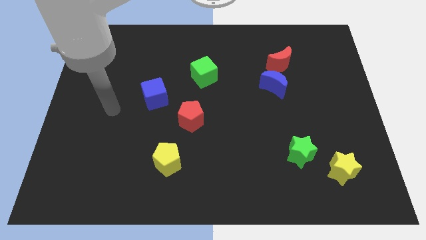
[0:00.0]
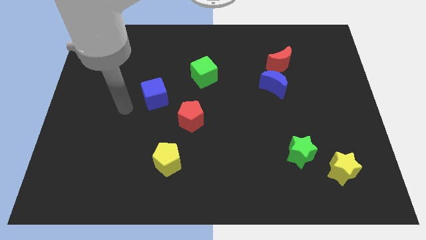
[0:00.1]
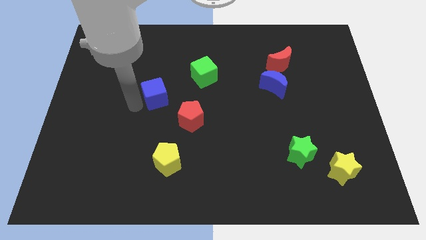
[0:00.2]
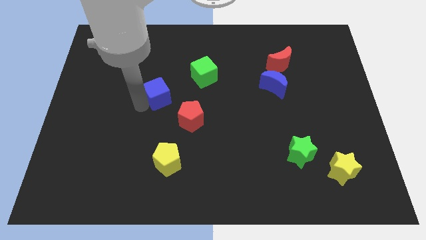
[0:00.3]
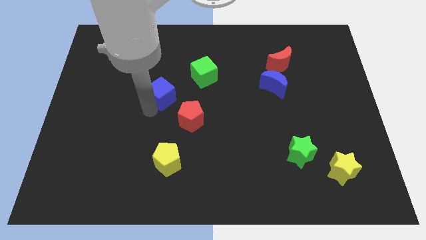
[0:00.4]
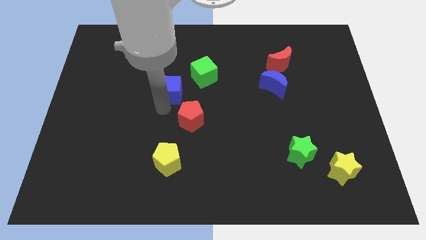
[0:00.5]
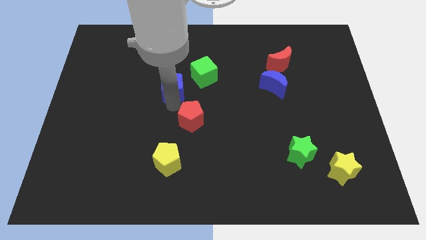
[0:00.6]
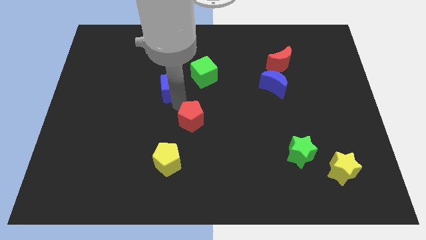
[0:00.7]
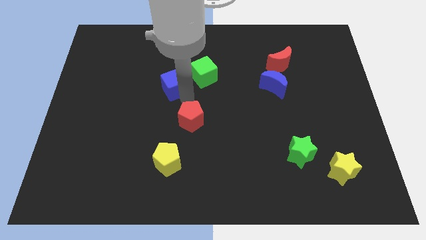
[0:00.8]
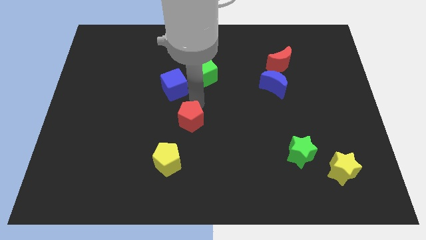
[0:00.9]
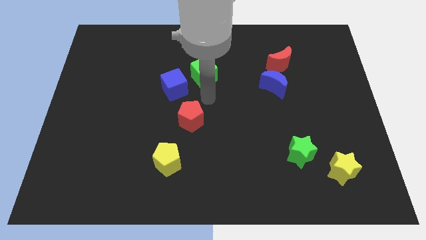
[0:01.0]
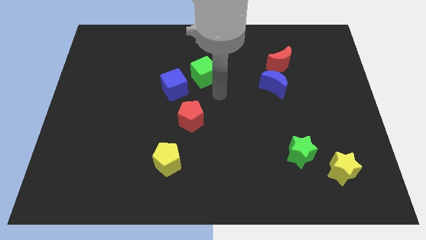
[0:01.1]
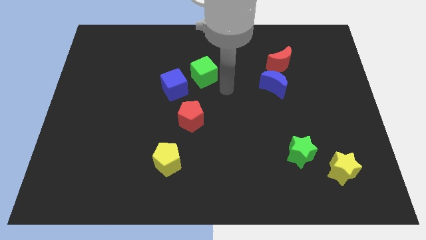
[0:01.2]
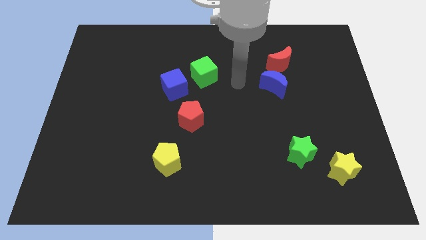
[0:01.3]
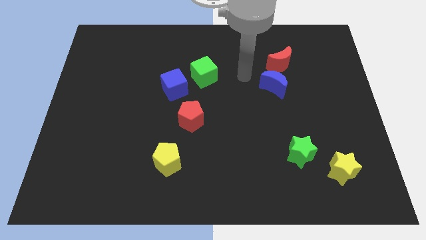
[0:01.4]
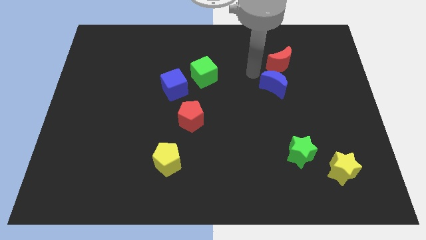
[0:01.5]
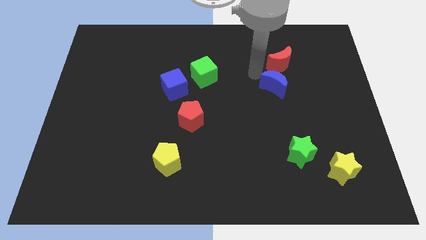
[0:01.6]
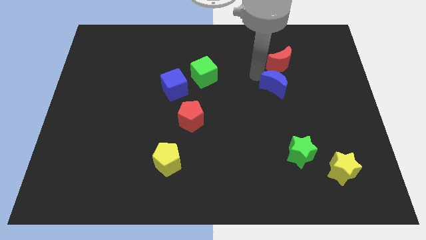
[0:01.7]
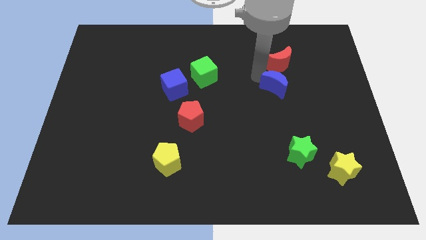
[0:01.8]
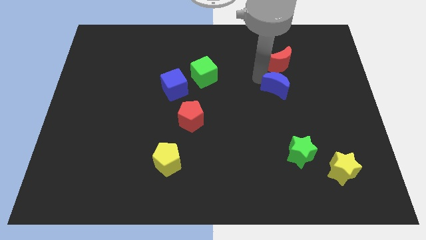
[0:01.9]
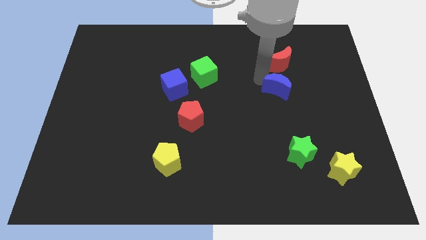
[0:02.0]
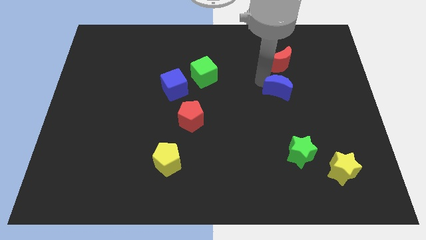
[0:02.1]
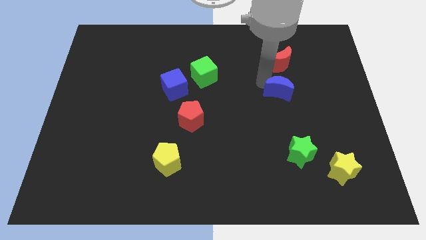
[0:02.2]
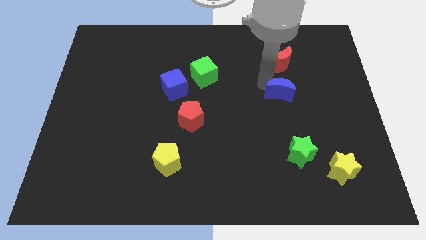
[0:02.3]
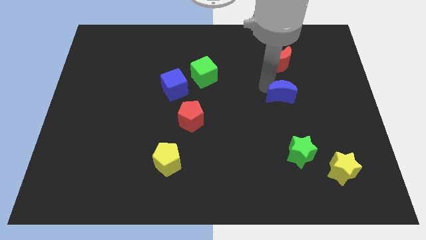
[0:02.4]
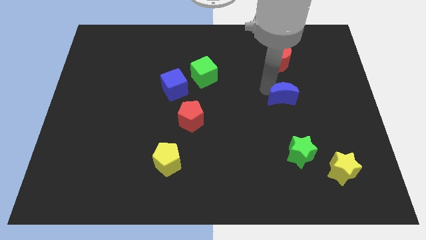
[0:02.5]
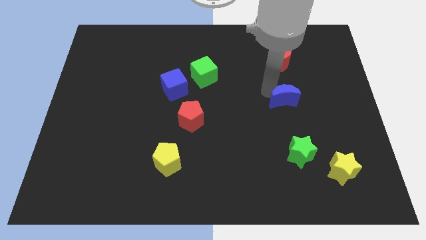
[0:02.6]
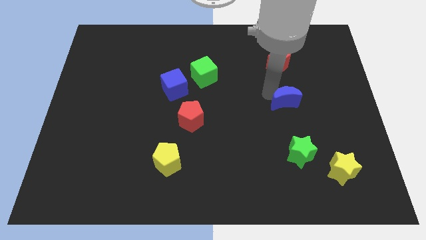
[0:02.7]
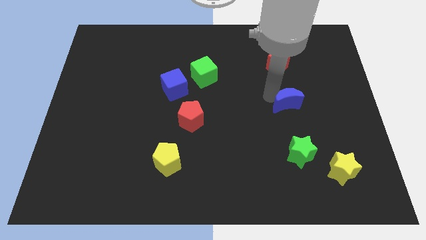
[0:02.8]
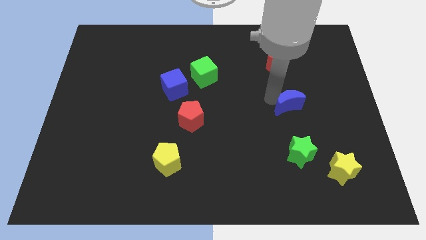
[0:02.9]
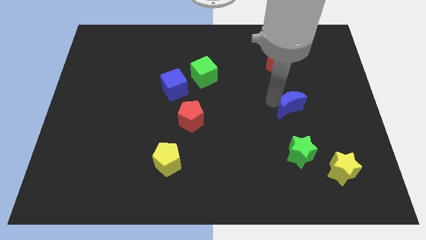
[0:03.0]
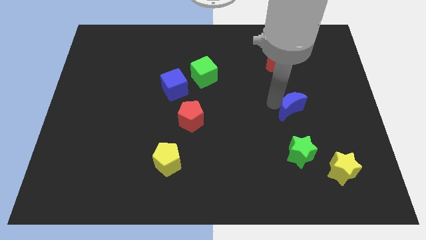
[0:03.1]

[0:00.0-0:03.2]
move the blue moon diagonally downwards and to the right somewhat

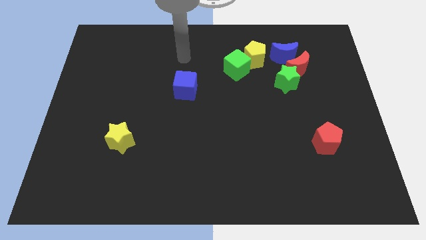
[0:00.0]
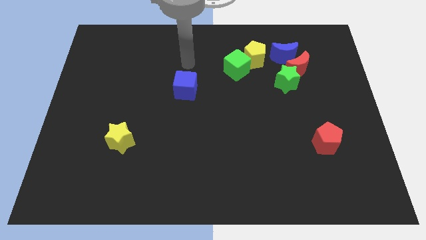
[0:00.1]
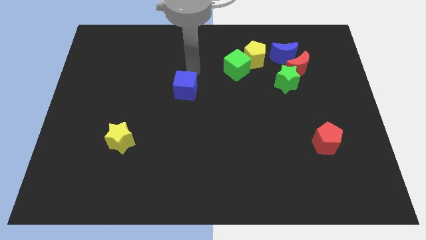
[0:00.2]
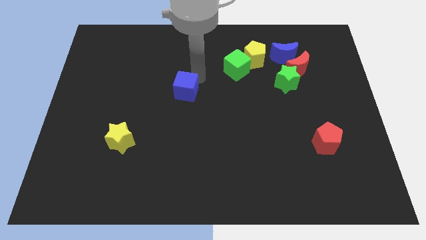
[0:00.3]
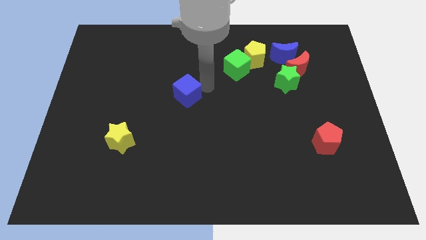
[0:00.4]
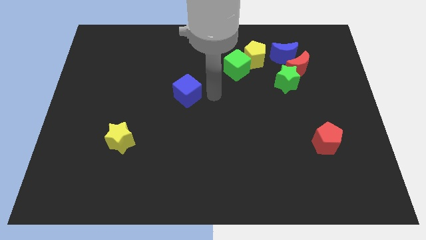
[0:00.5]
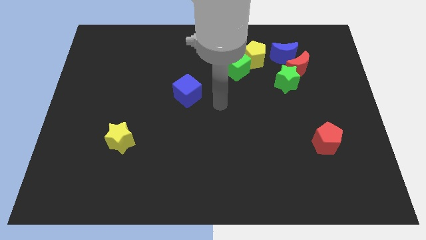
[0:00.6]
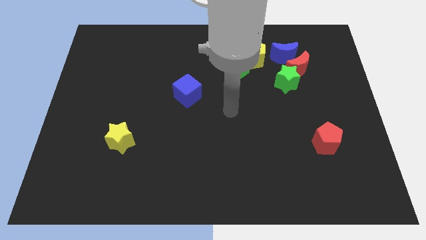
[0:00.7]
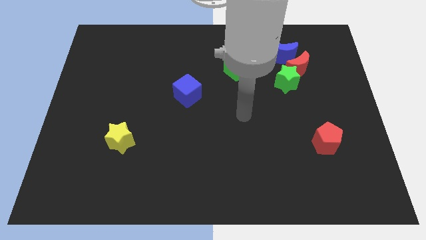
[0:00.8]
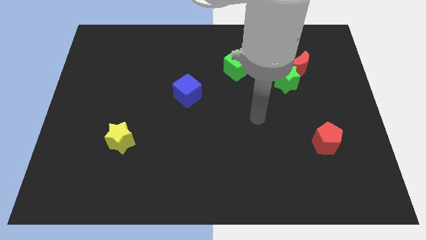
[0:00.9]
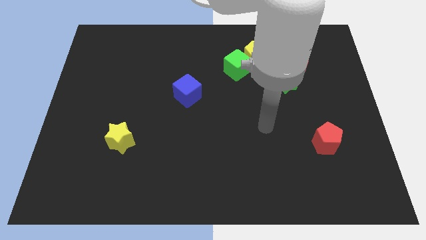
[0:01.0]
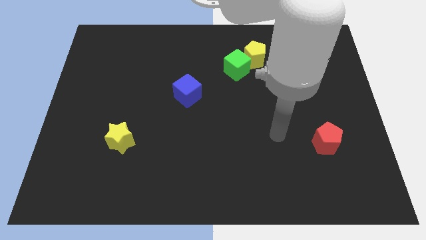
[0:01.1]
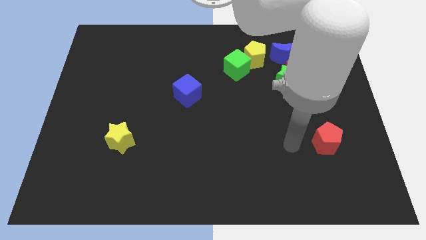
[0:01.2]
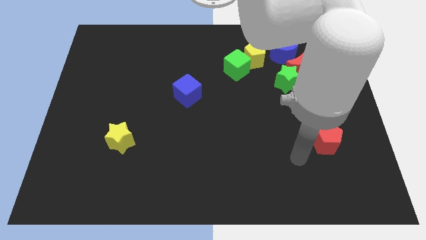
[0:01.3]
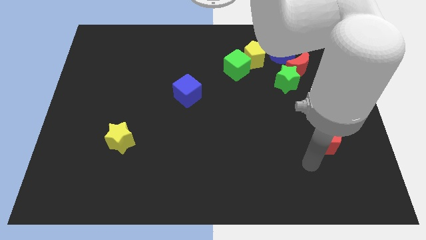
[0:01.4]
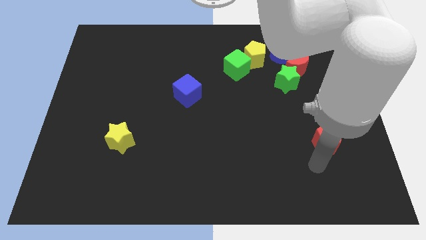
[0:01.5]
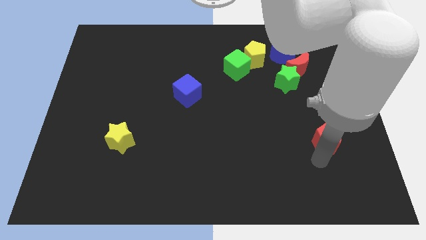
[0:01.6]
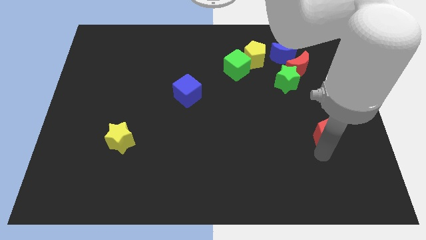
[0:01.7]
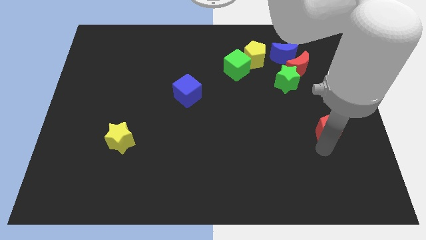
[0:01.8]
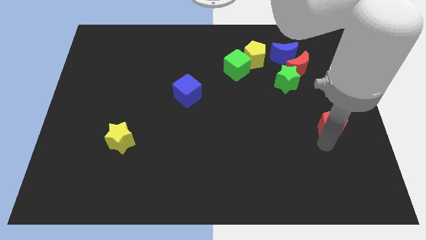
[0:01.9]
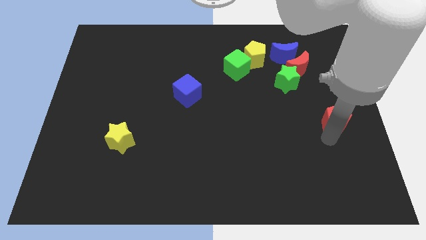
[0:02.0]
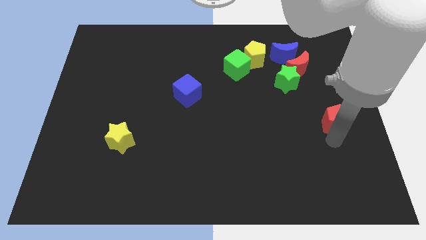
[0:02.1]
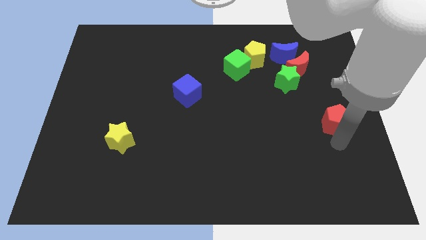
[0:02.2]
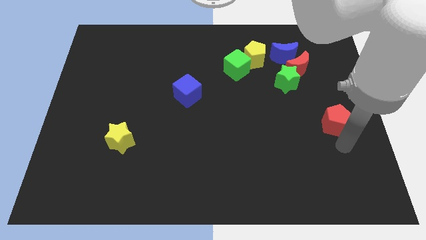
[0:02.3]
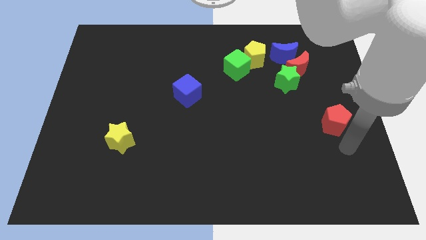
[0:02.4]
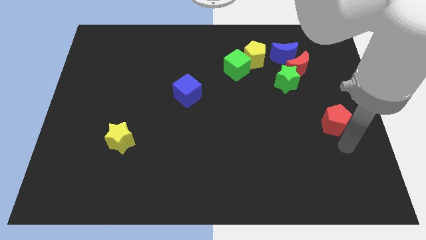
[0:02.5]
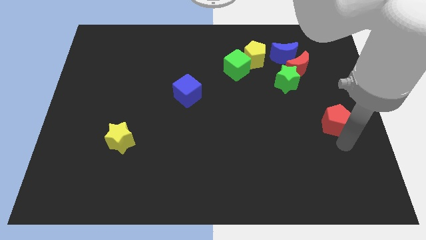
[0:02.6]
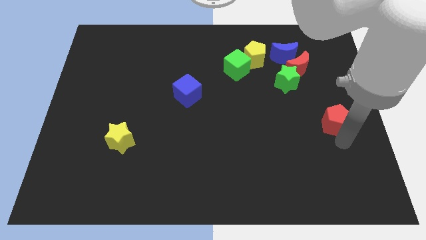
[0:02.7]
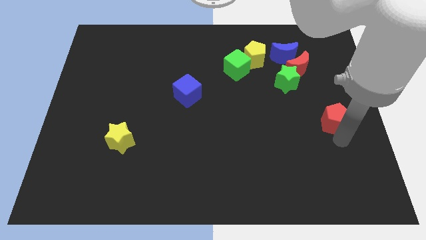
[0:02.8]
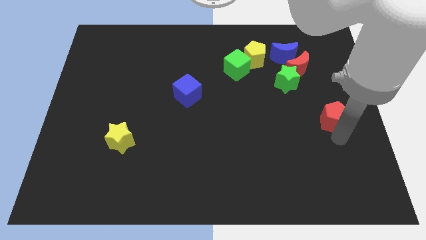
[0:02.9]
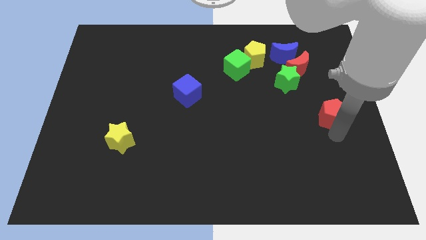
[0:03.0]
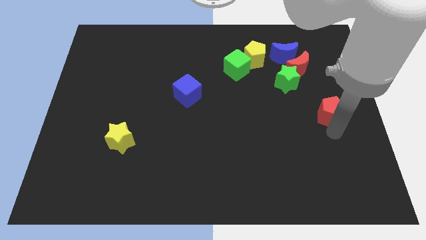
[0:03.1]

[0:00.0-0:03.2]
slightly push the red pentagon up

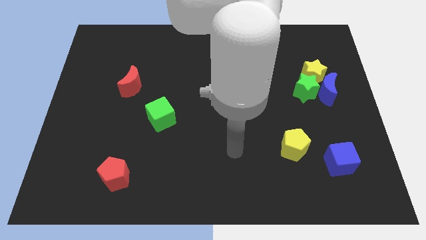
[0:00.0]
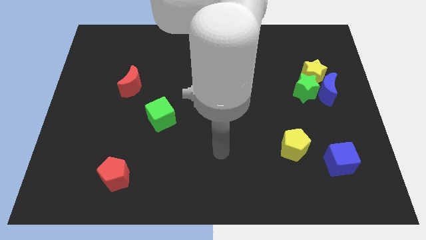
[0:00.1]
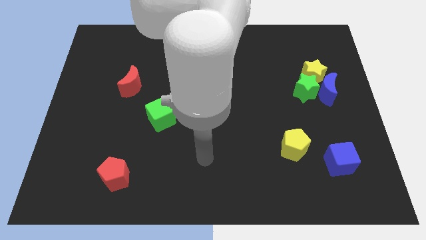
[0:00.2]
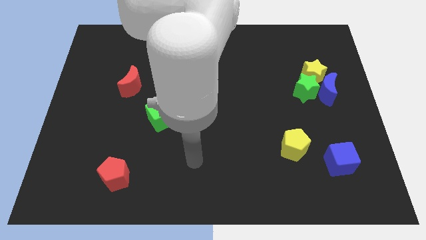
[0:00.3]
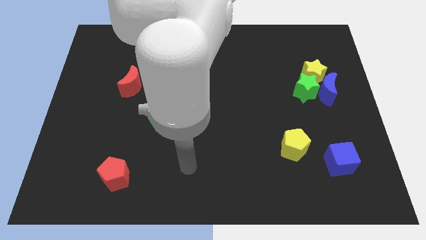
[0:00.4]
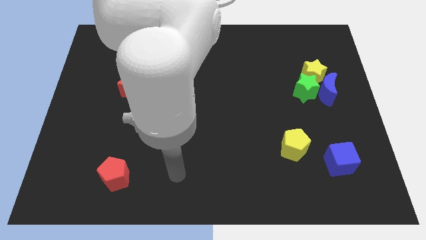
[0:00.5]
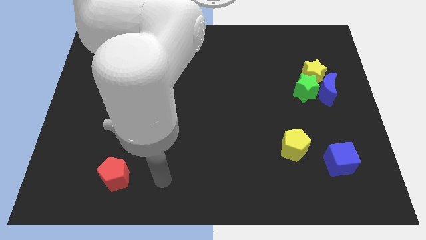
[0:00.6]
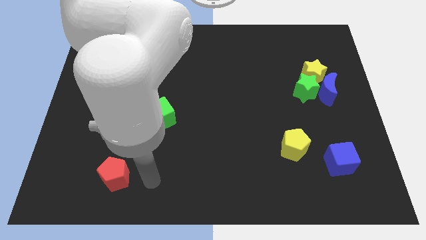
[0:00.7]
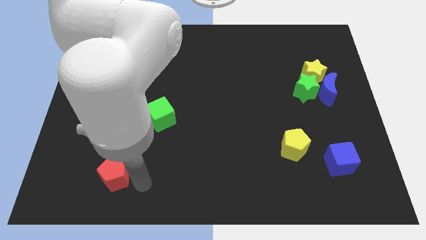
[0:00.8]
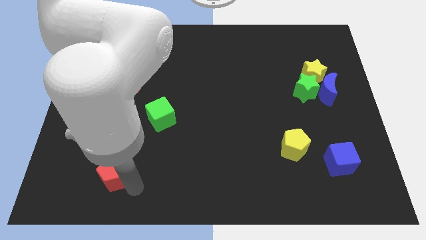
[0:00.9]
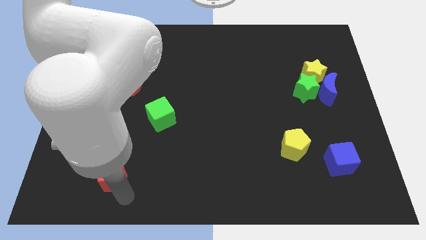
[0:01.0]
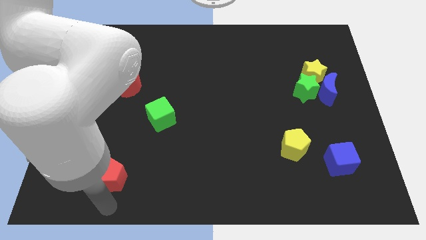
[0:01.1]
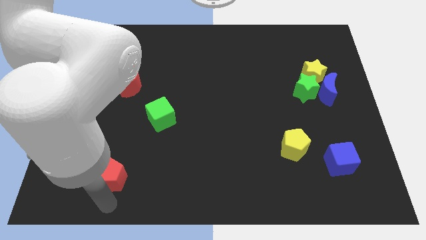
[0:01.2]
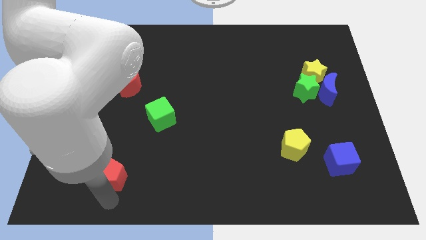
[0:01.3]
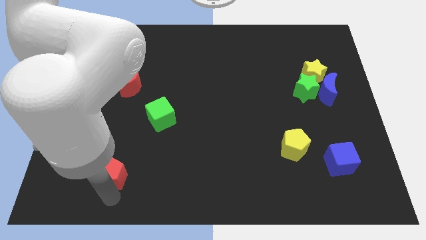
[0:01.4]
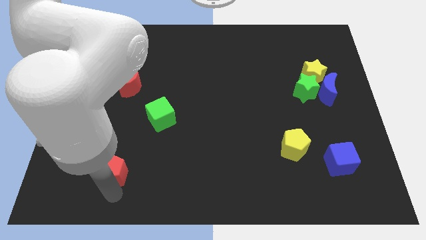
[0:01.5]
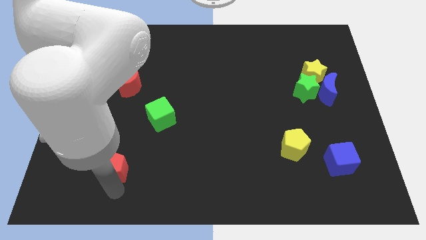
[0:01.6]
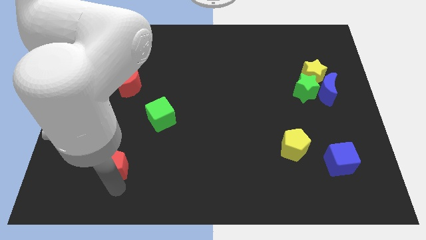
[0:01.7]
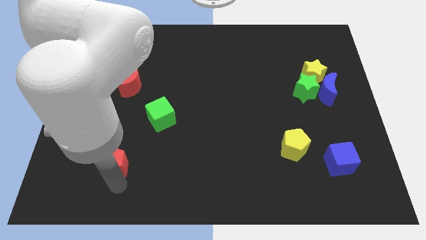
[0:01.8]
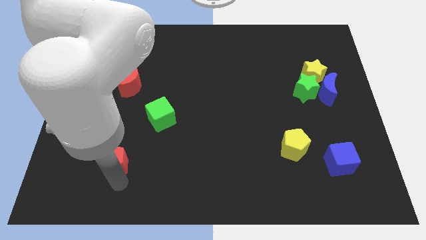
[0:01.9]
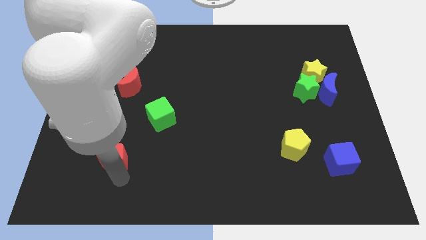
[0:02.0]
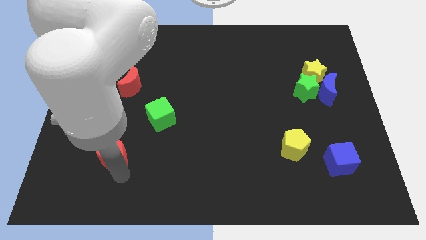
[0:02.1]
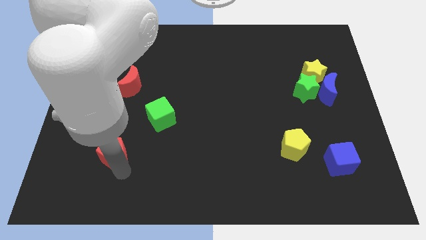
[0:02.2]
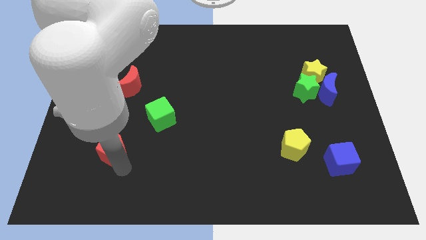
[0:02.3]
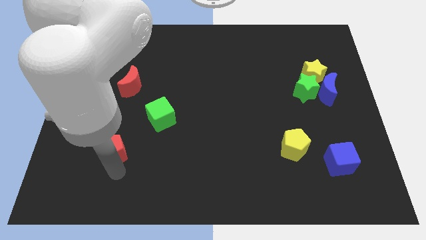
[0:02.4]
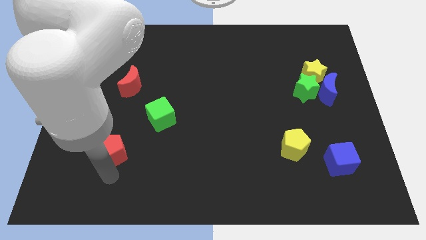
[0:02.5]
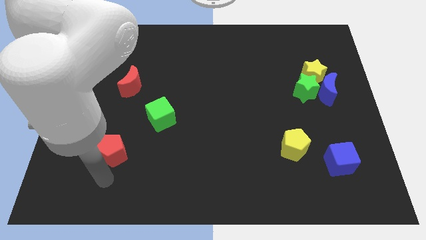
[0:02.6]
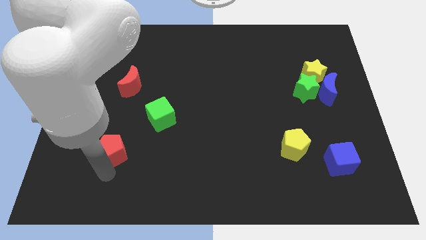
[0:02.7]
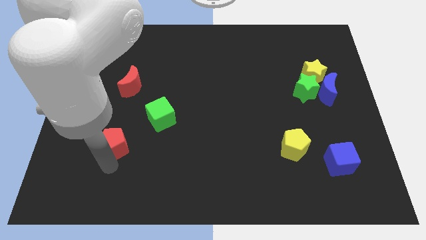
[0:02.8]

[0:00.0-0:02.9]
slide the red pentagon a bit up
